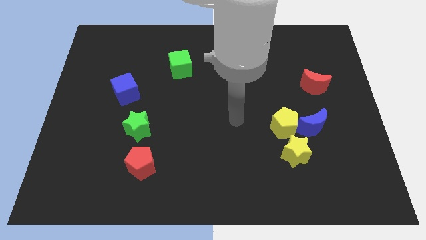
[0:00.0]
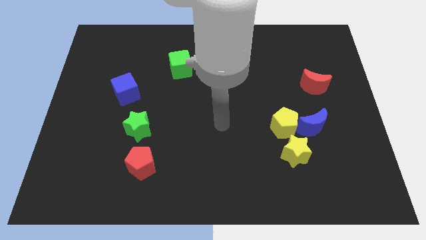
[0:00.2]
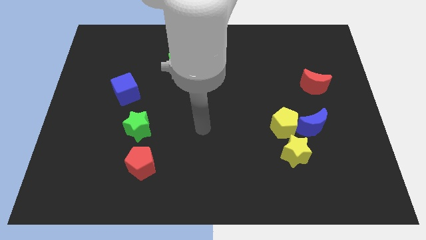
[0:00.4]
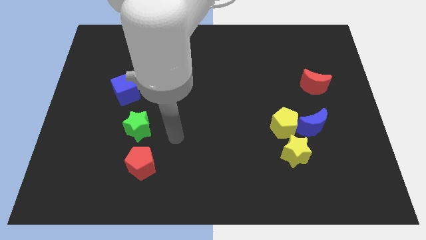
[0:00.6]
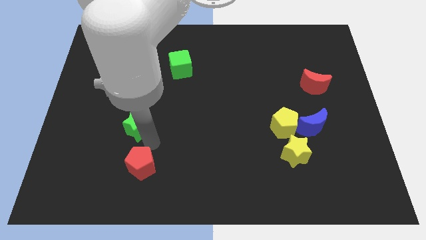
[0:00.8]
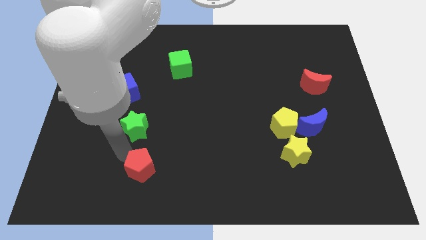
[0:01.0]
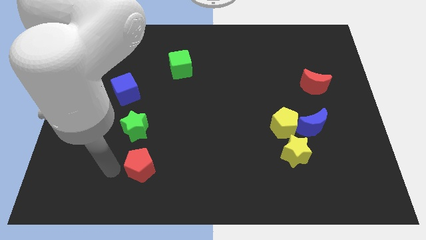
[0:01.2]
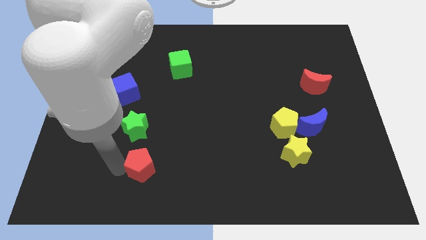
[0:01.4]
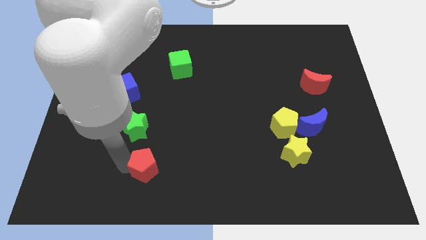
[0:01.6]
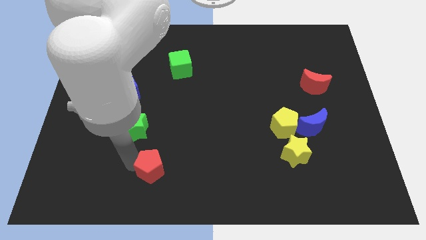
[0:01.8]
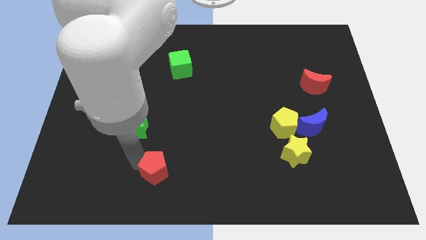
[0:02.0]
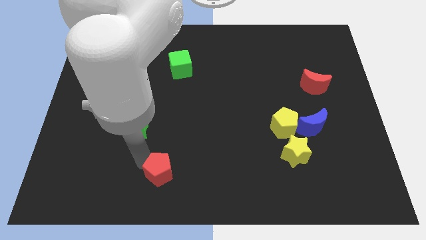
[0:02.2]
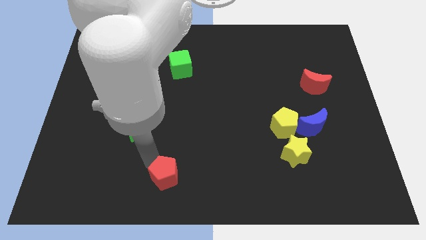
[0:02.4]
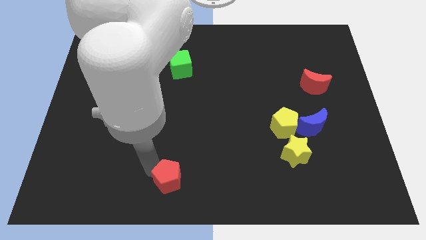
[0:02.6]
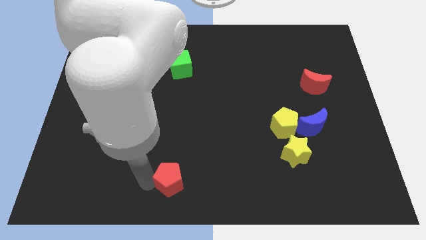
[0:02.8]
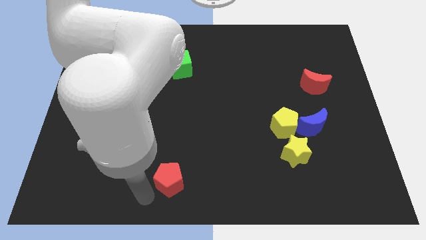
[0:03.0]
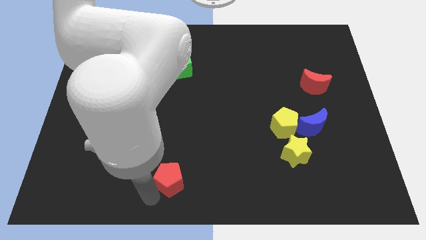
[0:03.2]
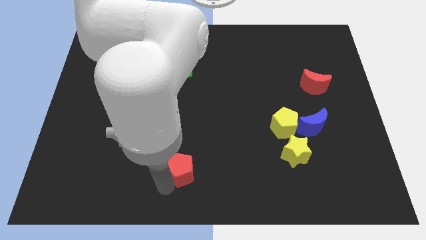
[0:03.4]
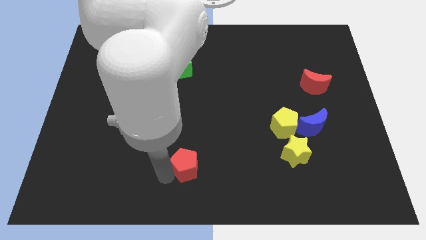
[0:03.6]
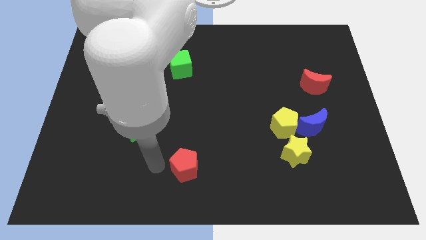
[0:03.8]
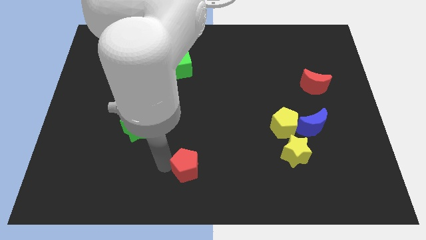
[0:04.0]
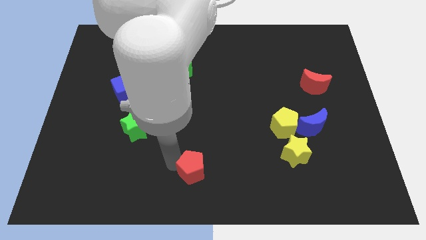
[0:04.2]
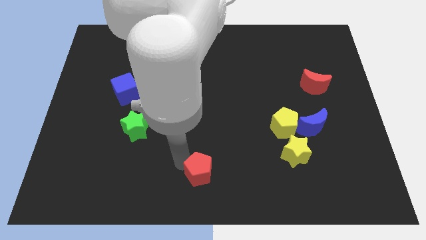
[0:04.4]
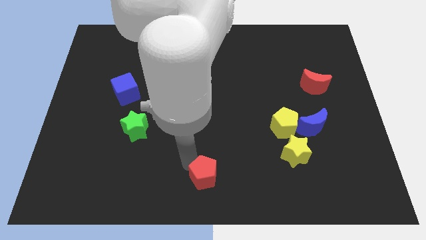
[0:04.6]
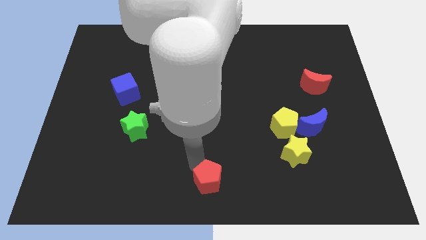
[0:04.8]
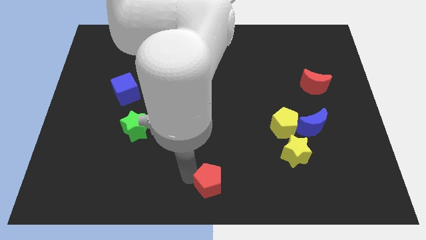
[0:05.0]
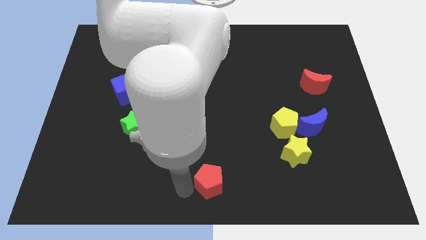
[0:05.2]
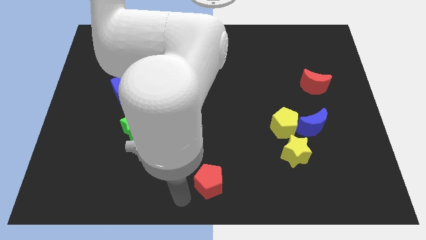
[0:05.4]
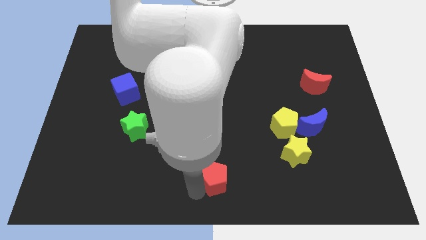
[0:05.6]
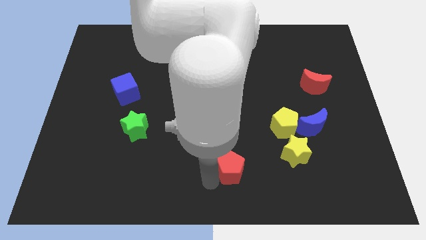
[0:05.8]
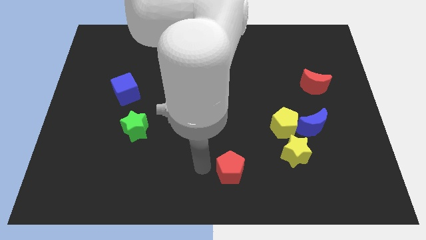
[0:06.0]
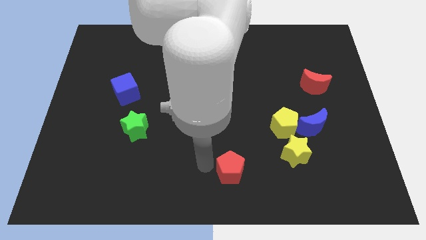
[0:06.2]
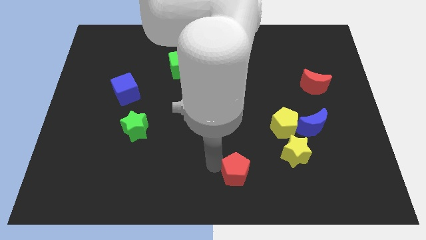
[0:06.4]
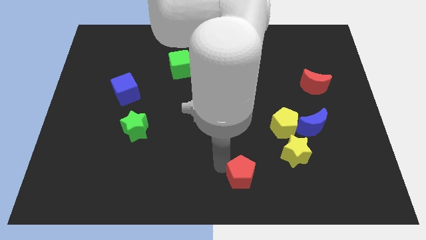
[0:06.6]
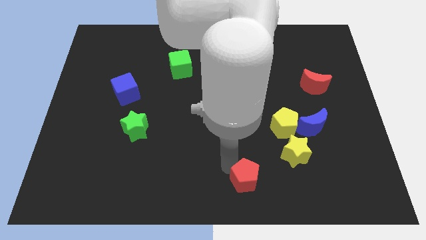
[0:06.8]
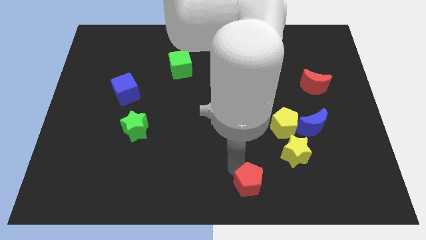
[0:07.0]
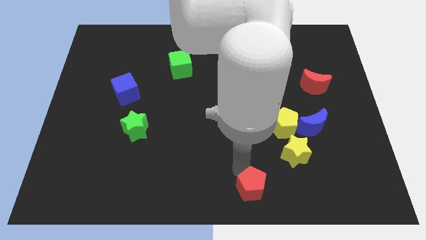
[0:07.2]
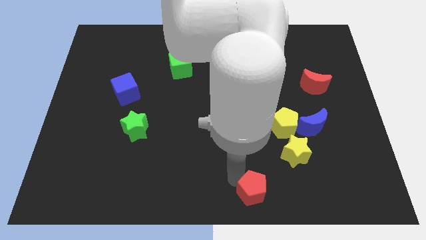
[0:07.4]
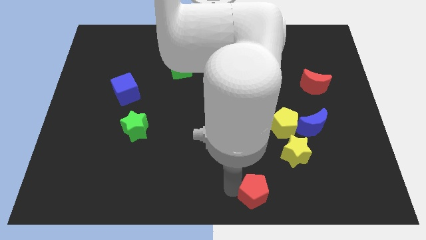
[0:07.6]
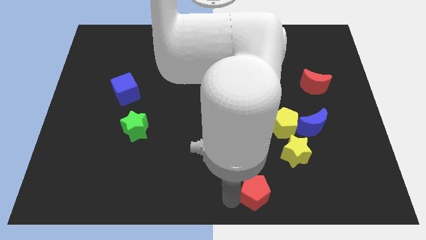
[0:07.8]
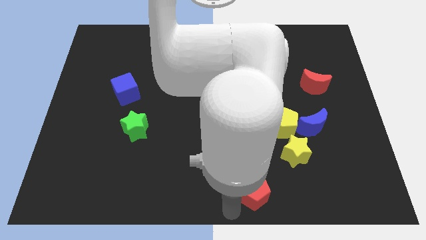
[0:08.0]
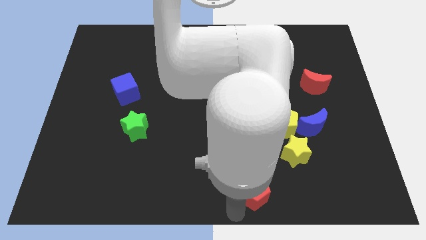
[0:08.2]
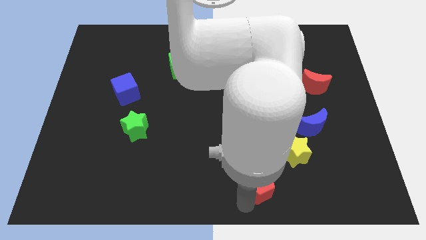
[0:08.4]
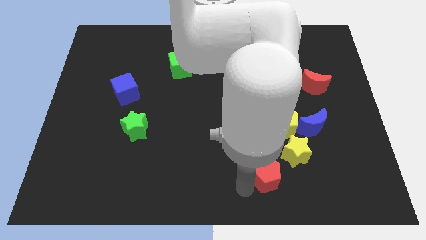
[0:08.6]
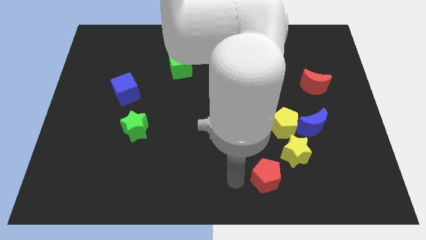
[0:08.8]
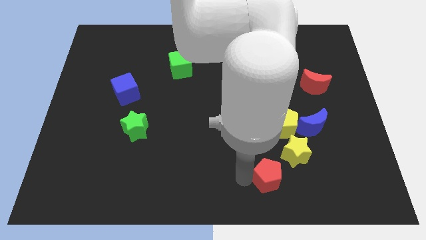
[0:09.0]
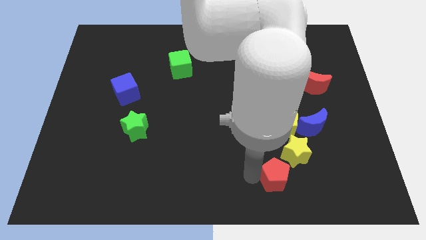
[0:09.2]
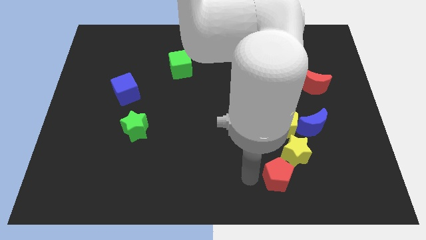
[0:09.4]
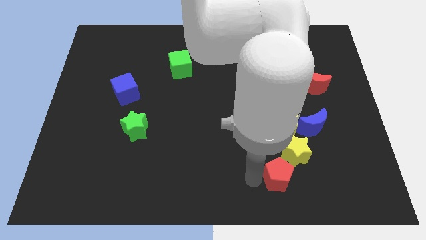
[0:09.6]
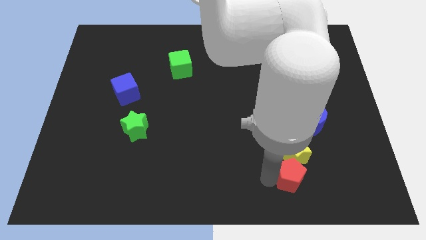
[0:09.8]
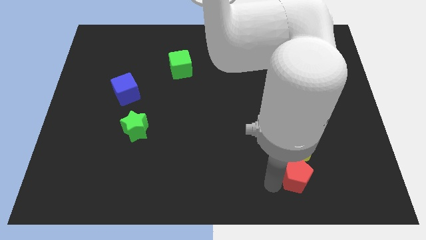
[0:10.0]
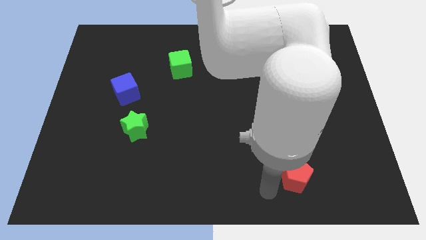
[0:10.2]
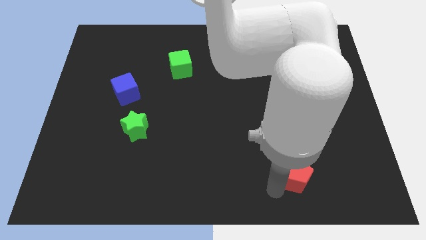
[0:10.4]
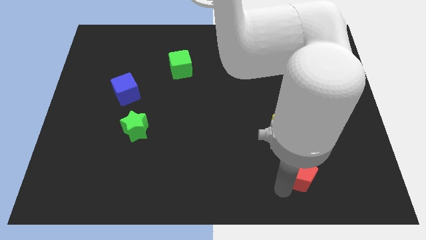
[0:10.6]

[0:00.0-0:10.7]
push the red pentagon to the bottom of the blue moon

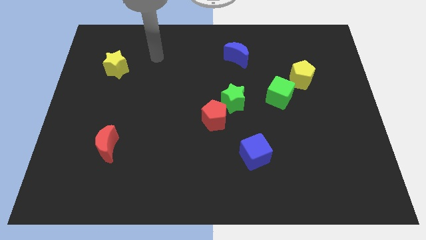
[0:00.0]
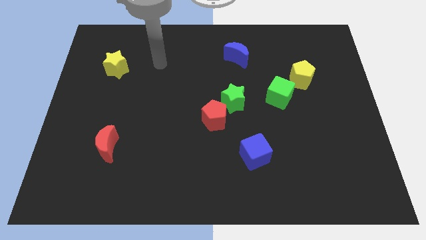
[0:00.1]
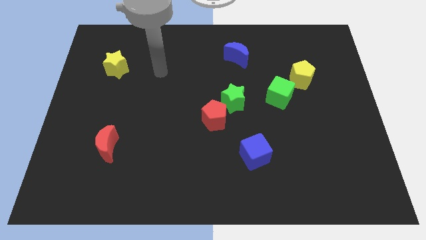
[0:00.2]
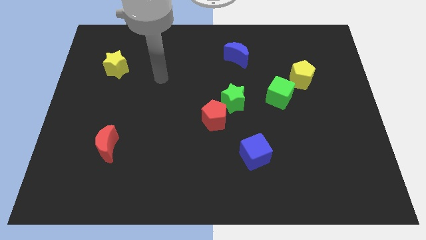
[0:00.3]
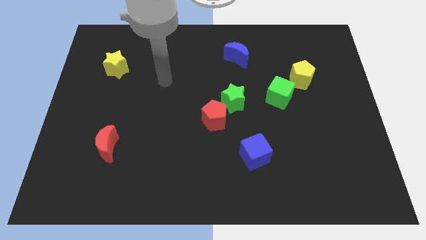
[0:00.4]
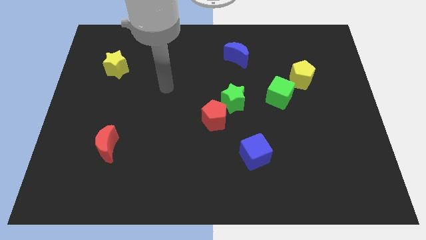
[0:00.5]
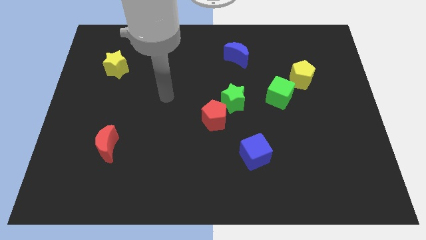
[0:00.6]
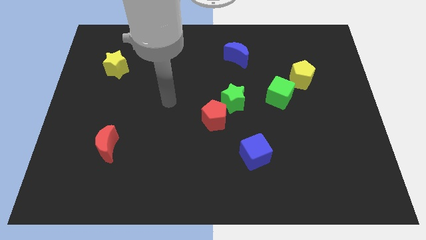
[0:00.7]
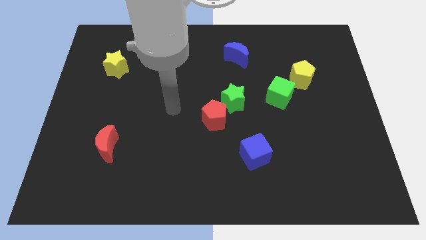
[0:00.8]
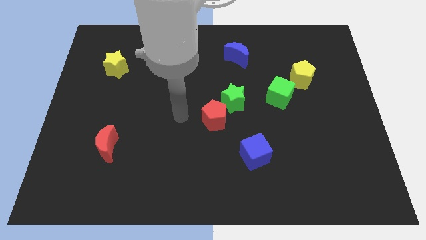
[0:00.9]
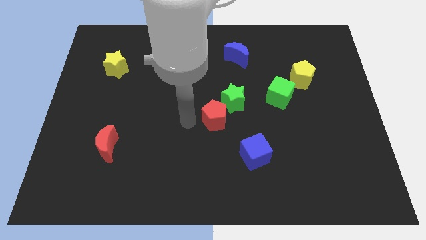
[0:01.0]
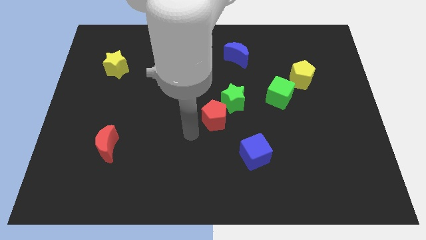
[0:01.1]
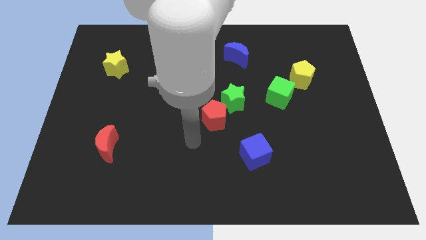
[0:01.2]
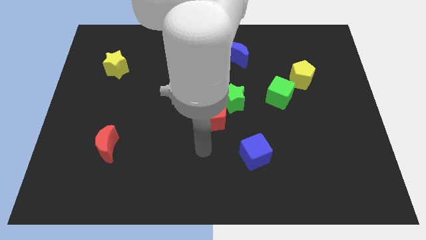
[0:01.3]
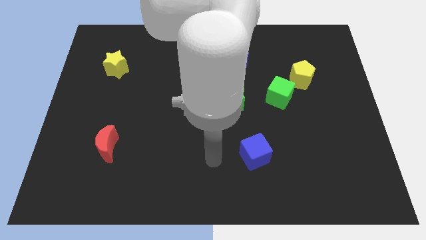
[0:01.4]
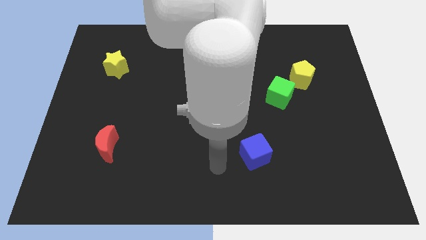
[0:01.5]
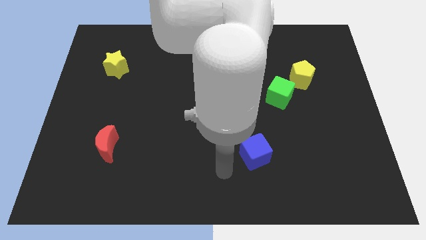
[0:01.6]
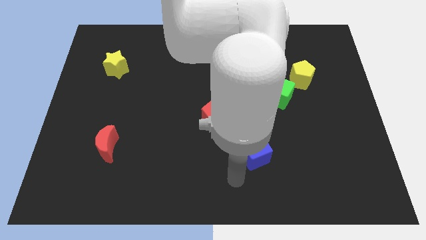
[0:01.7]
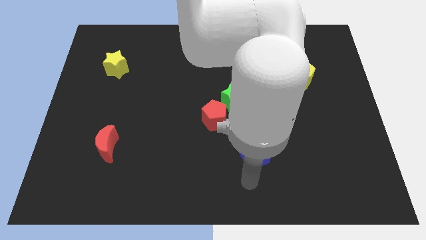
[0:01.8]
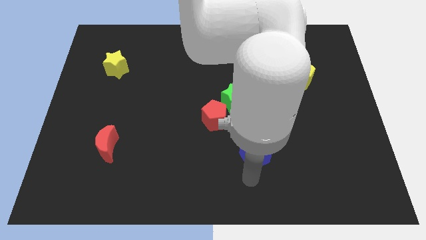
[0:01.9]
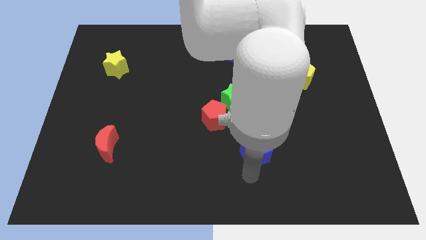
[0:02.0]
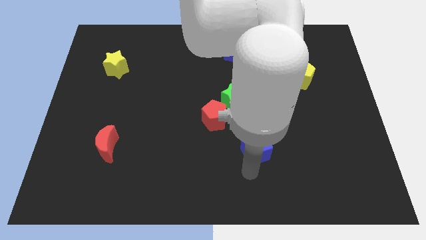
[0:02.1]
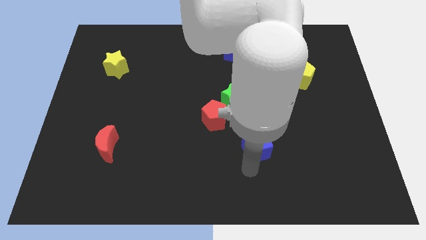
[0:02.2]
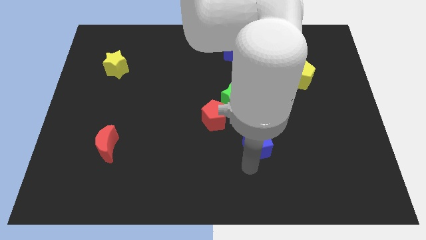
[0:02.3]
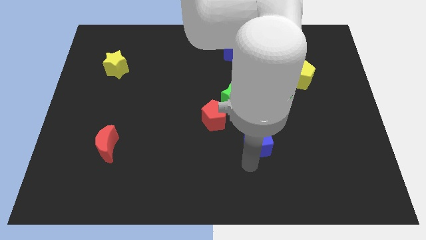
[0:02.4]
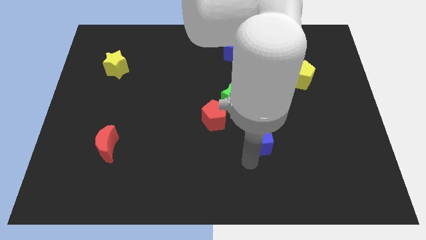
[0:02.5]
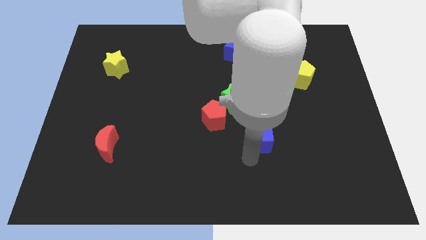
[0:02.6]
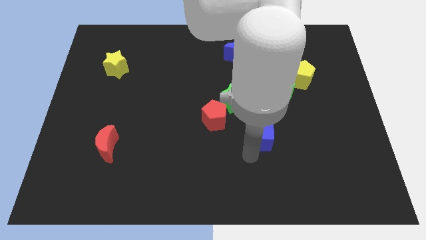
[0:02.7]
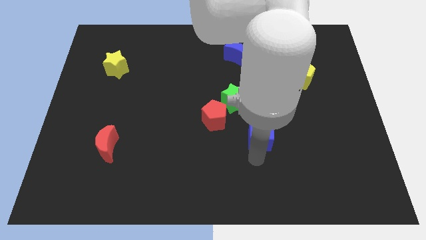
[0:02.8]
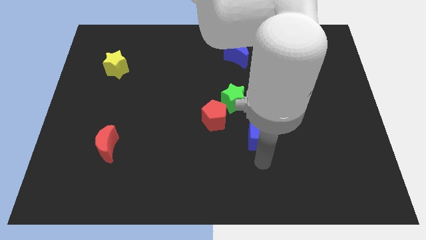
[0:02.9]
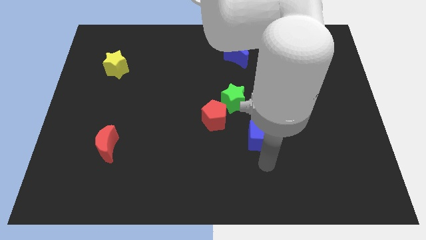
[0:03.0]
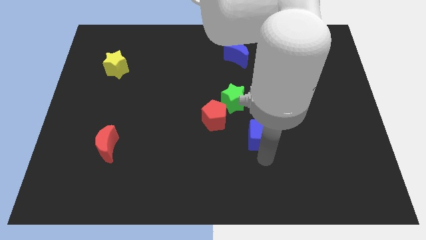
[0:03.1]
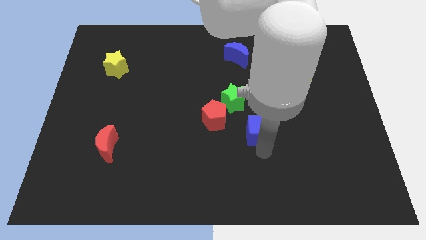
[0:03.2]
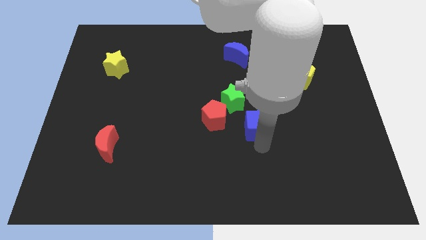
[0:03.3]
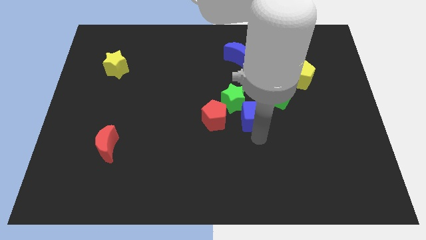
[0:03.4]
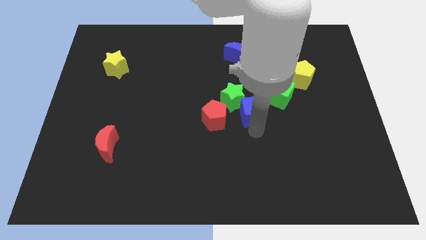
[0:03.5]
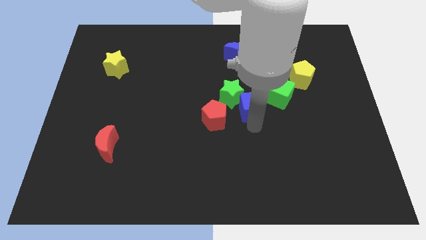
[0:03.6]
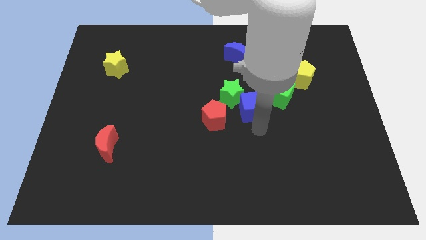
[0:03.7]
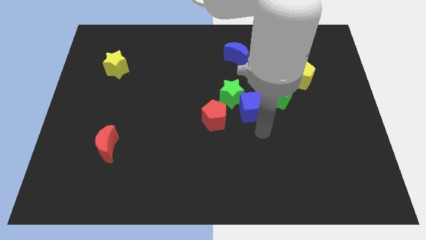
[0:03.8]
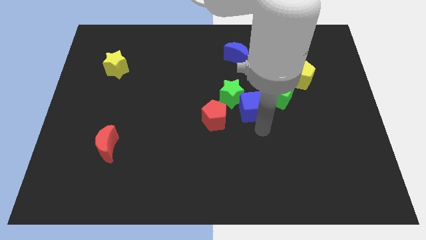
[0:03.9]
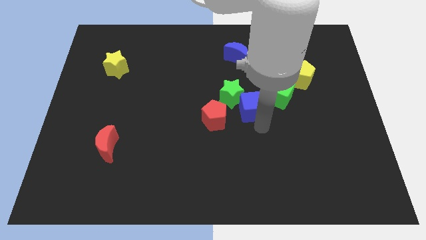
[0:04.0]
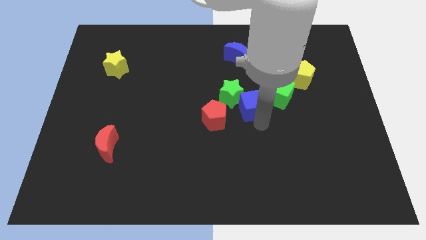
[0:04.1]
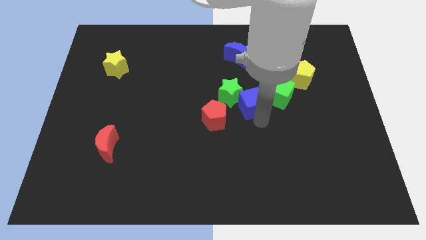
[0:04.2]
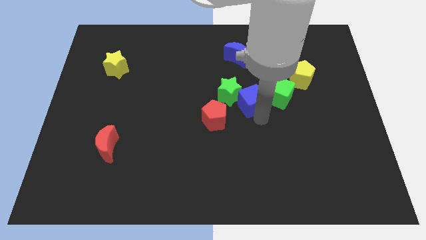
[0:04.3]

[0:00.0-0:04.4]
slide the blue cube to the bottom of the blue moon
